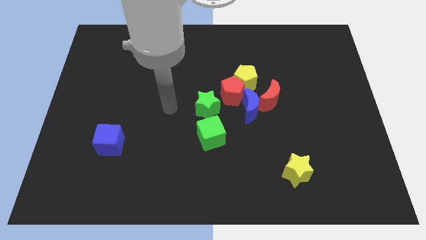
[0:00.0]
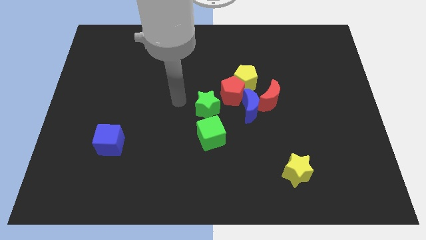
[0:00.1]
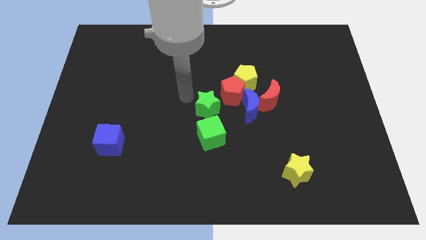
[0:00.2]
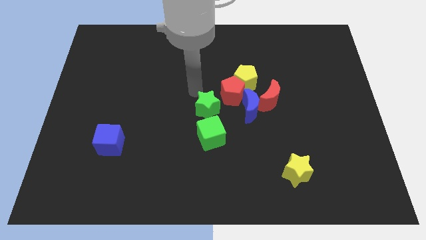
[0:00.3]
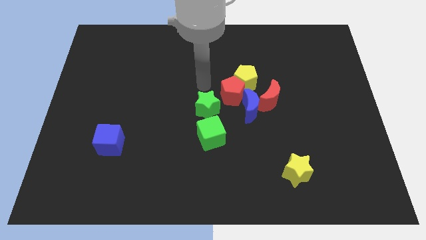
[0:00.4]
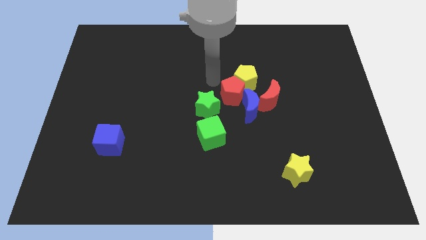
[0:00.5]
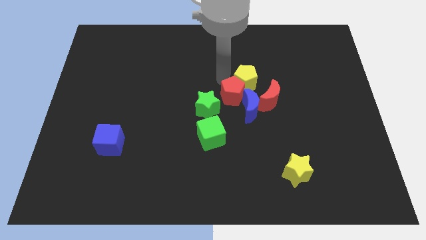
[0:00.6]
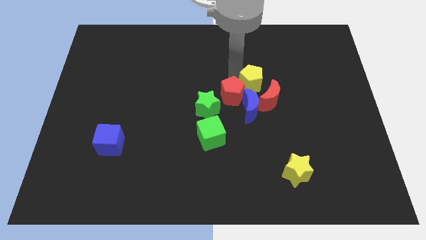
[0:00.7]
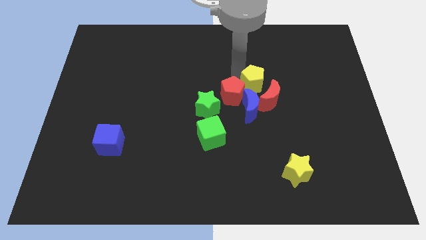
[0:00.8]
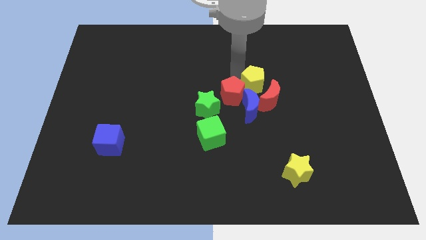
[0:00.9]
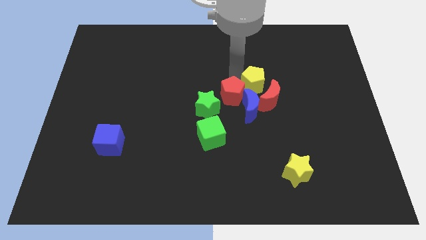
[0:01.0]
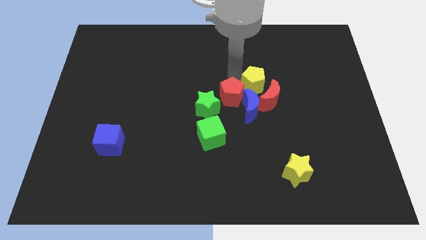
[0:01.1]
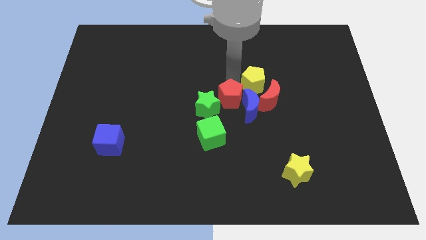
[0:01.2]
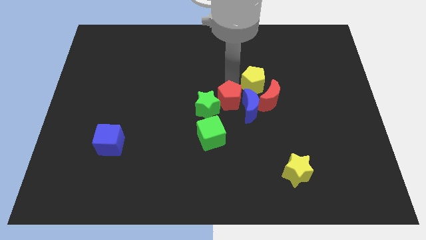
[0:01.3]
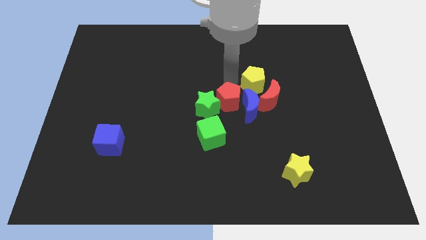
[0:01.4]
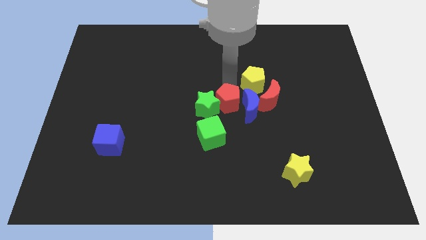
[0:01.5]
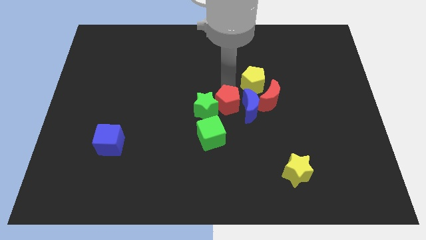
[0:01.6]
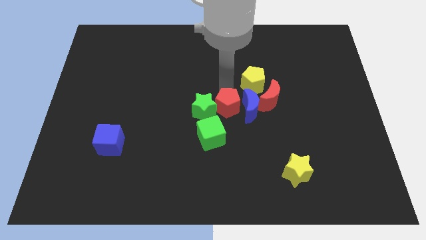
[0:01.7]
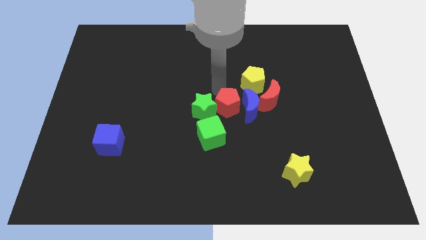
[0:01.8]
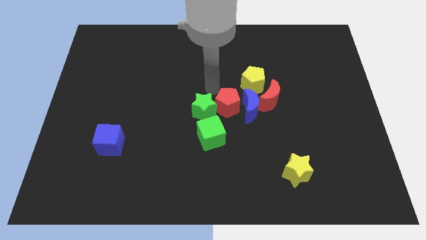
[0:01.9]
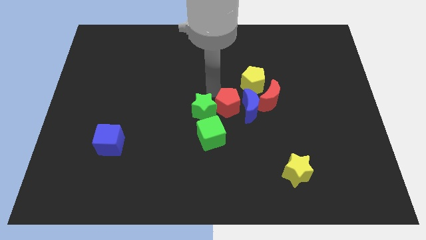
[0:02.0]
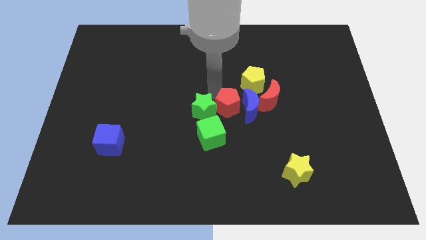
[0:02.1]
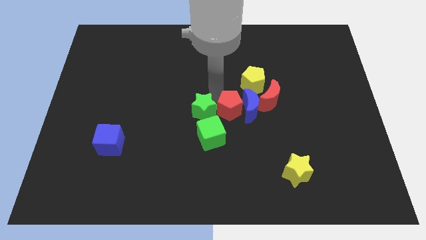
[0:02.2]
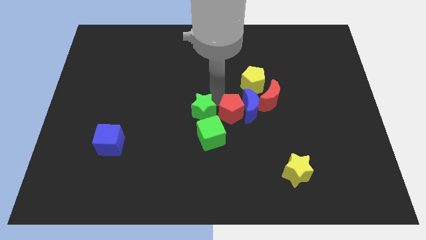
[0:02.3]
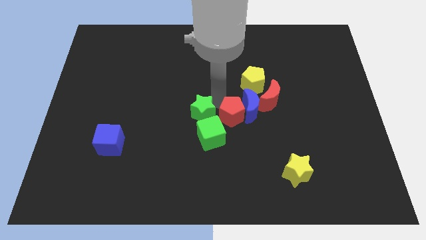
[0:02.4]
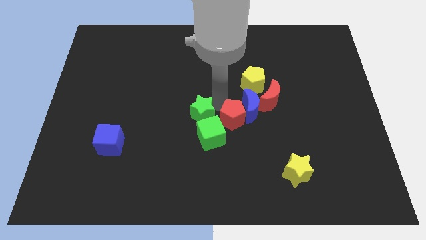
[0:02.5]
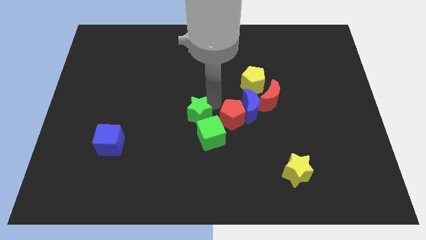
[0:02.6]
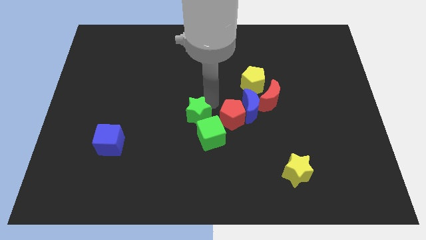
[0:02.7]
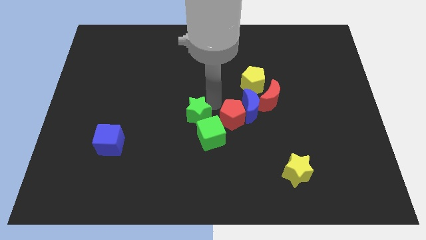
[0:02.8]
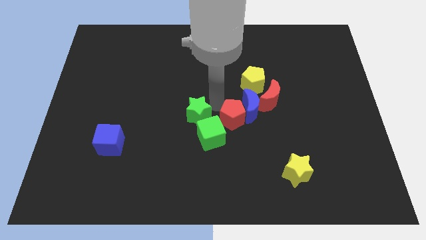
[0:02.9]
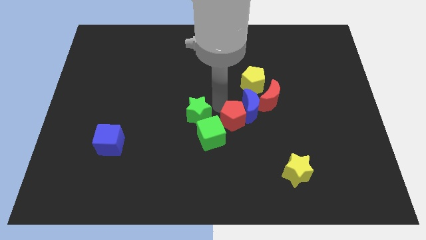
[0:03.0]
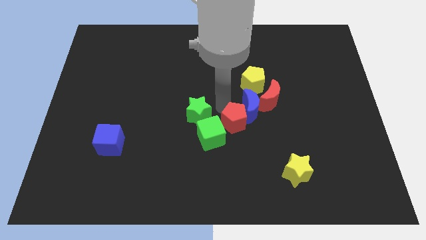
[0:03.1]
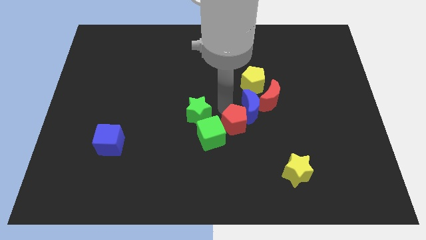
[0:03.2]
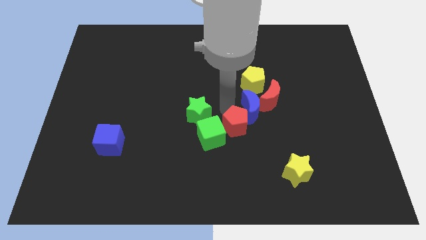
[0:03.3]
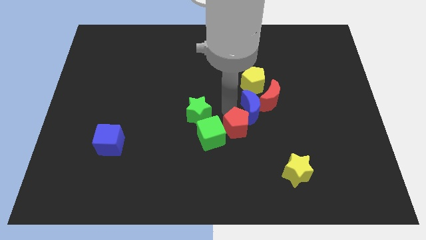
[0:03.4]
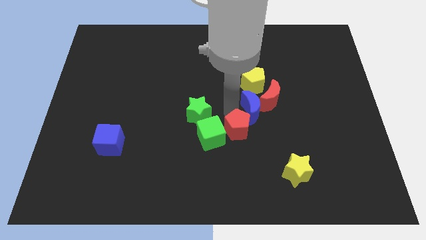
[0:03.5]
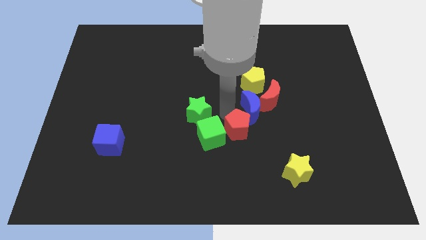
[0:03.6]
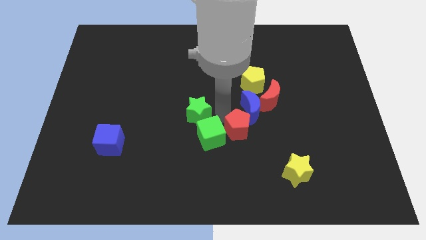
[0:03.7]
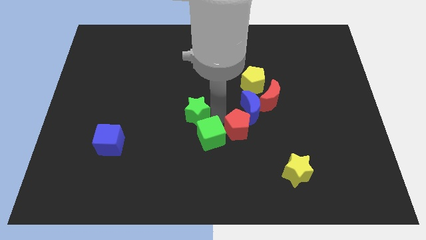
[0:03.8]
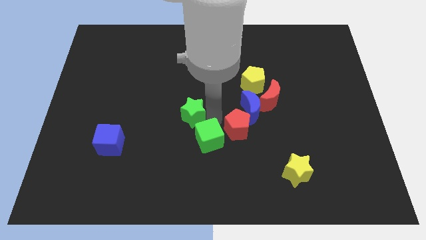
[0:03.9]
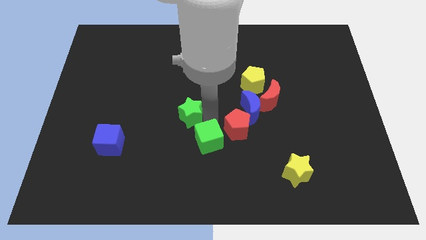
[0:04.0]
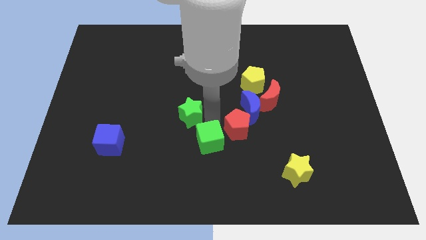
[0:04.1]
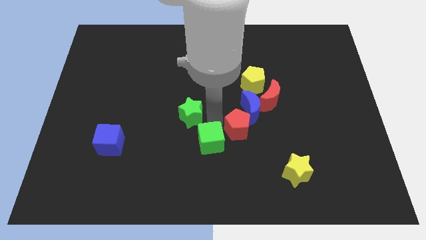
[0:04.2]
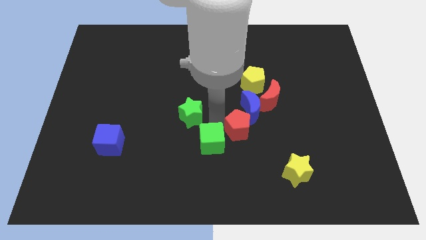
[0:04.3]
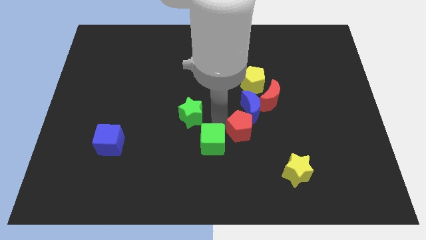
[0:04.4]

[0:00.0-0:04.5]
slide the red pentagon a little bit downwards and to the right diagonally

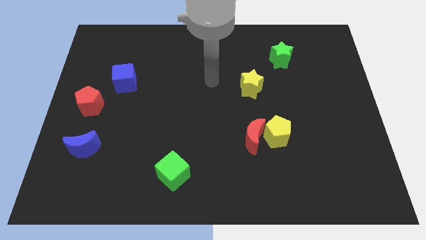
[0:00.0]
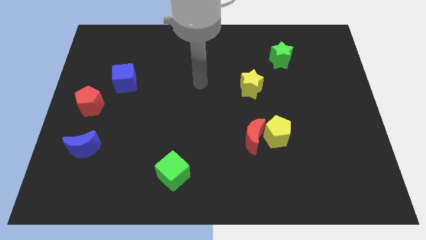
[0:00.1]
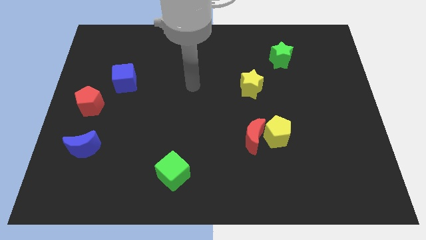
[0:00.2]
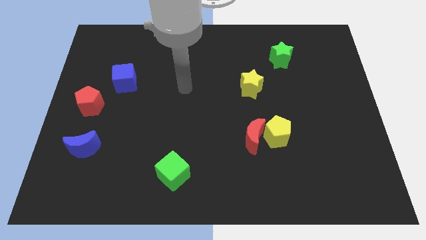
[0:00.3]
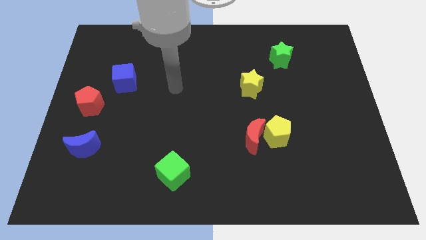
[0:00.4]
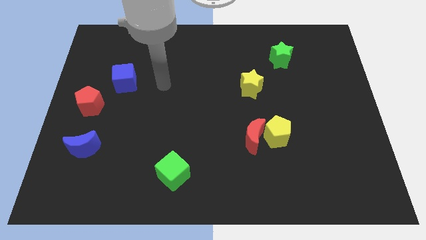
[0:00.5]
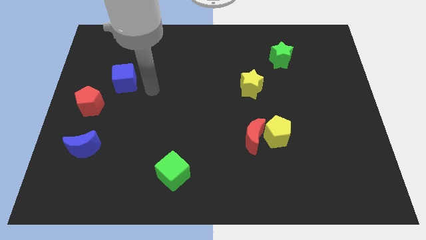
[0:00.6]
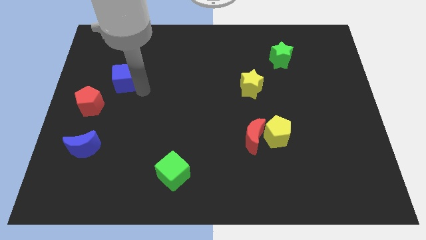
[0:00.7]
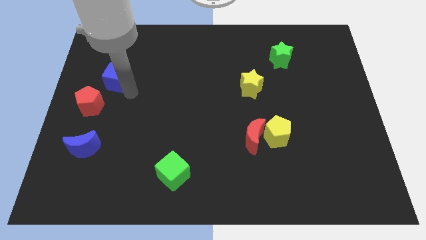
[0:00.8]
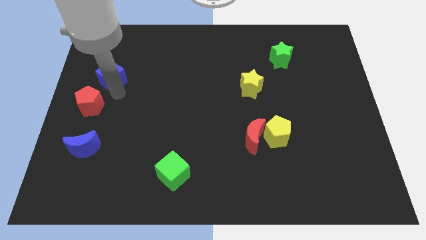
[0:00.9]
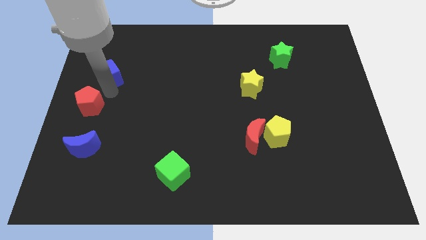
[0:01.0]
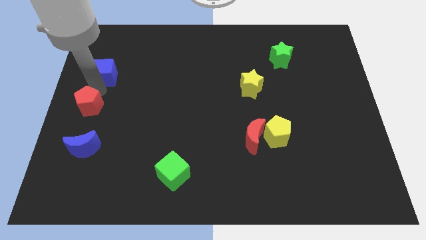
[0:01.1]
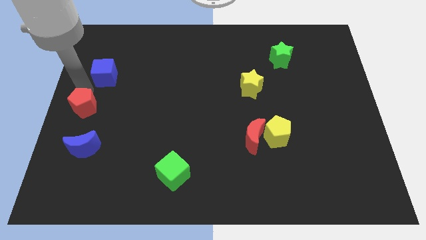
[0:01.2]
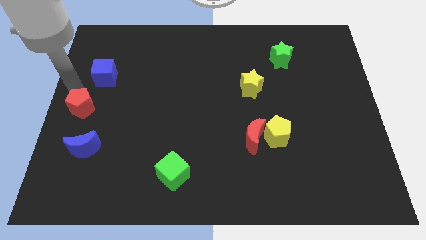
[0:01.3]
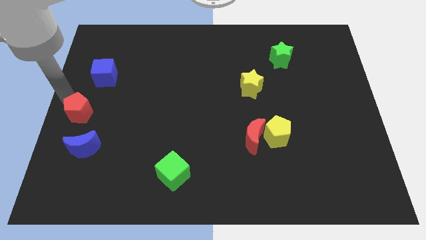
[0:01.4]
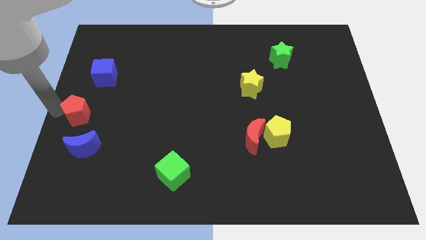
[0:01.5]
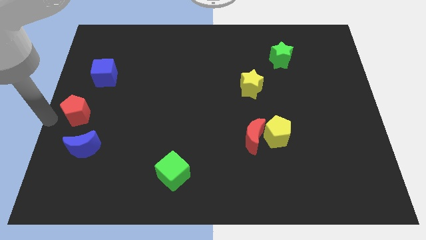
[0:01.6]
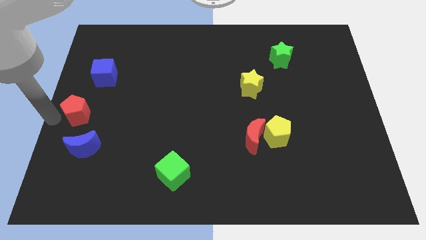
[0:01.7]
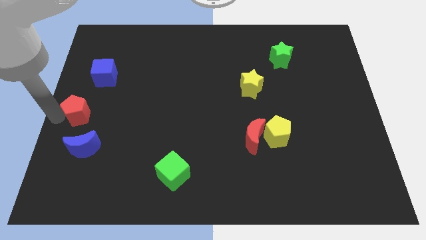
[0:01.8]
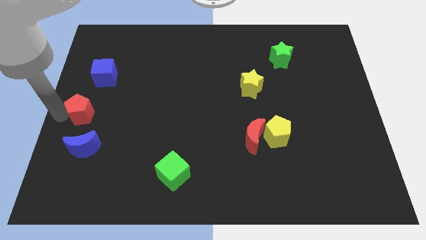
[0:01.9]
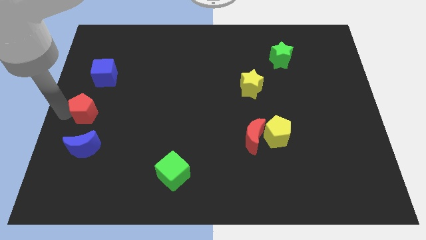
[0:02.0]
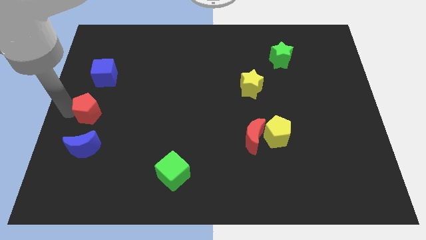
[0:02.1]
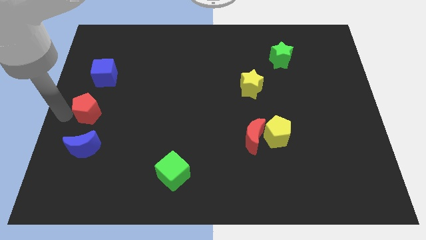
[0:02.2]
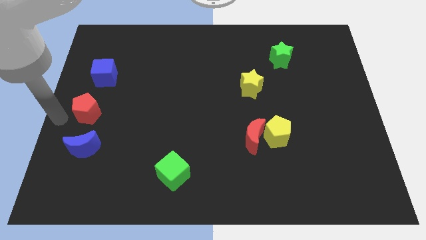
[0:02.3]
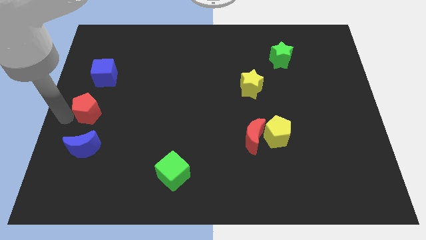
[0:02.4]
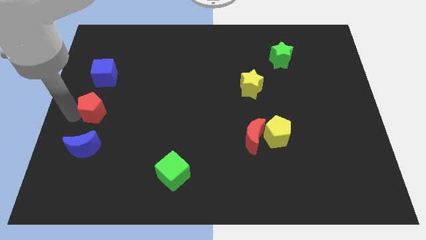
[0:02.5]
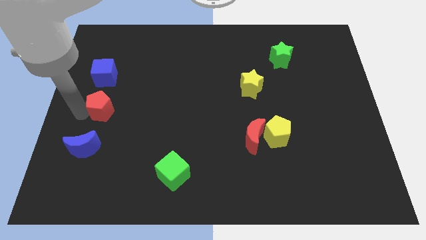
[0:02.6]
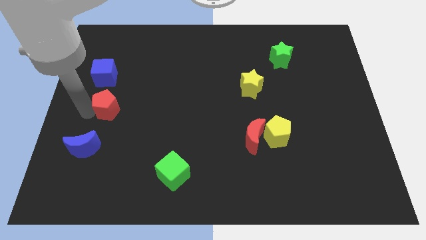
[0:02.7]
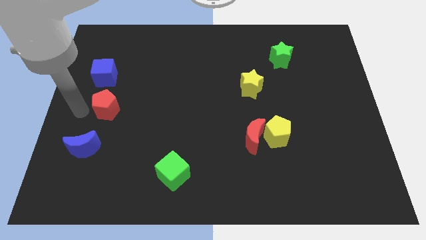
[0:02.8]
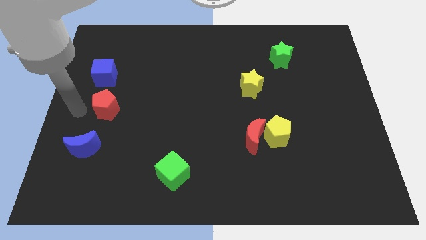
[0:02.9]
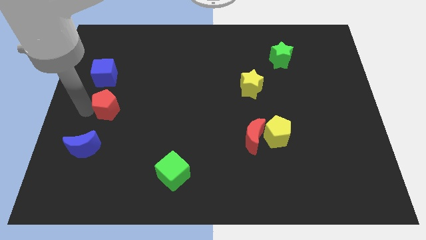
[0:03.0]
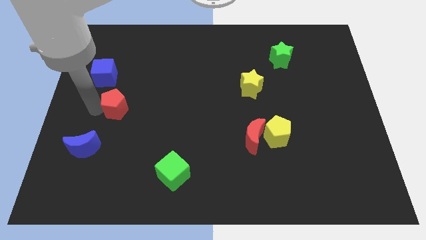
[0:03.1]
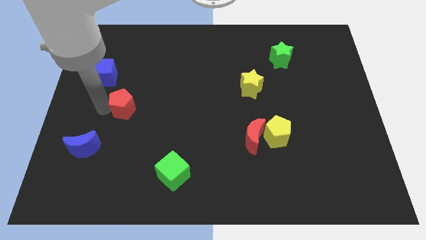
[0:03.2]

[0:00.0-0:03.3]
push the red pentagon right a bit

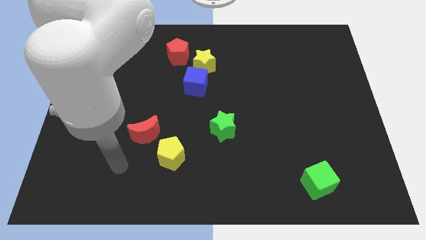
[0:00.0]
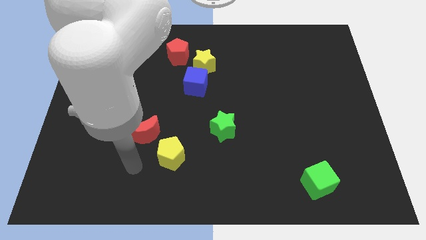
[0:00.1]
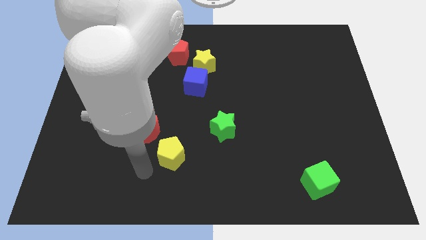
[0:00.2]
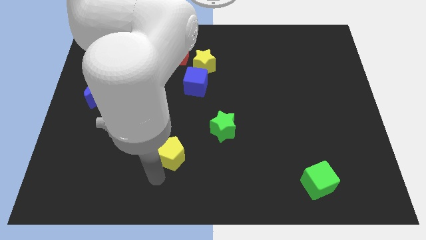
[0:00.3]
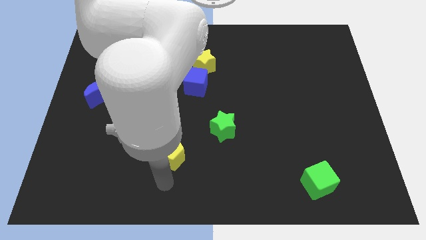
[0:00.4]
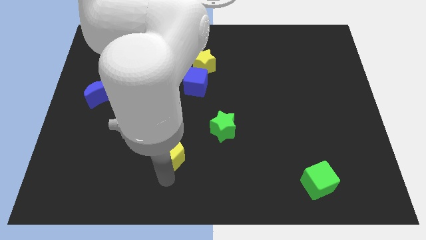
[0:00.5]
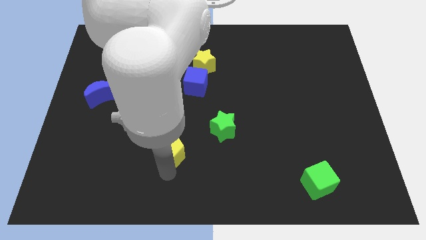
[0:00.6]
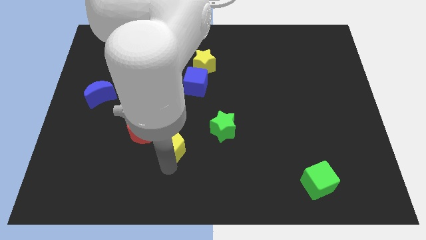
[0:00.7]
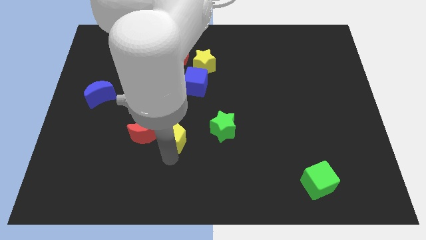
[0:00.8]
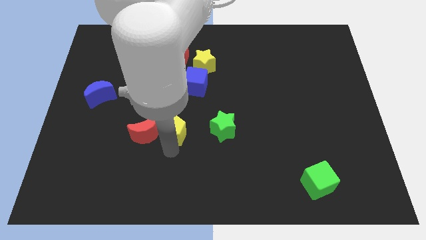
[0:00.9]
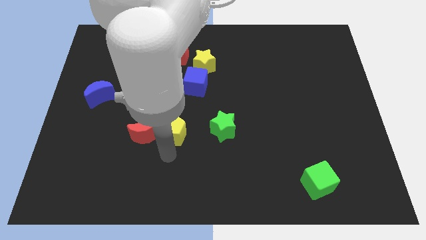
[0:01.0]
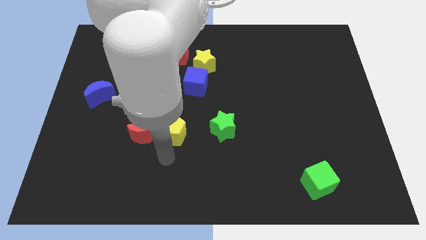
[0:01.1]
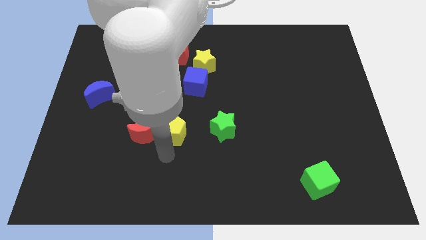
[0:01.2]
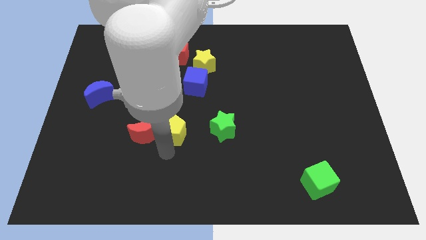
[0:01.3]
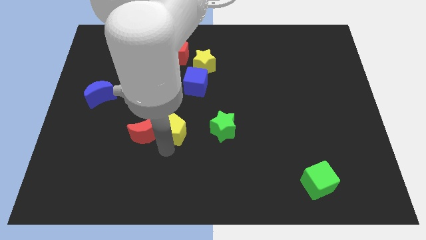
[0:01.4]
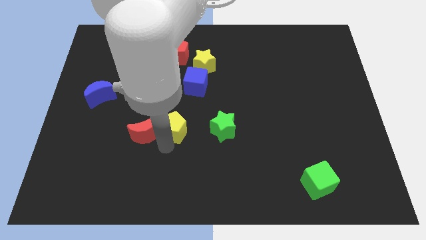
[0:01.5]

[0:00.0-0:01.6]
push the yellow pentagon upwards slightly
